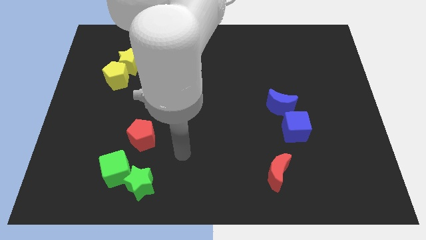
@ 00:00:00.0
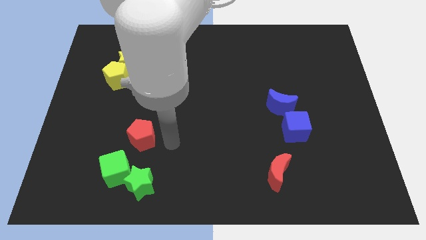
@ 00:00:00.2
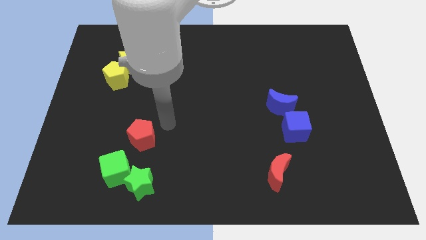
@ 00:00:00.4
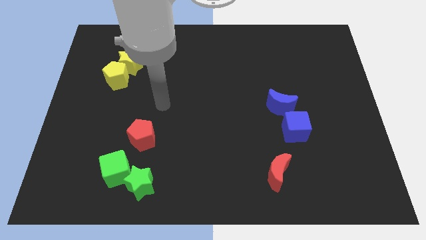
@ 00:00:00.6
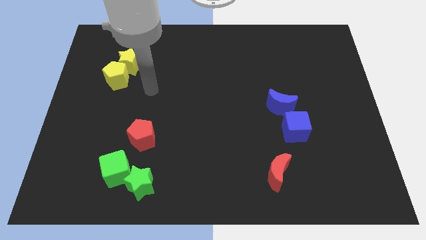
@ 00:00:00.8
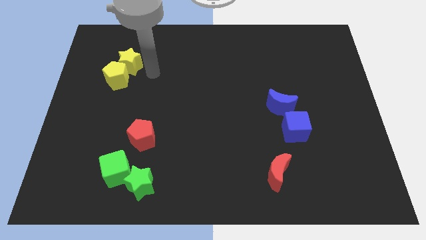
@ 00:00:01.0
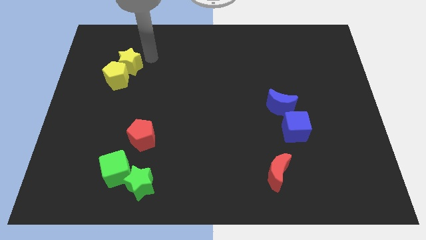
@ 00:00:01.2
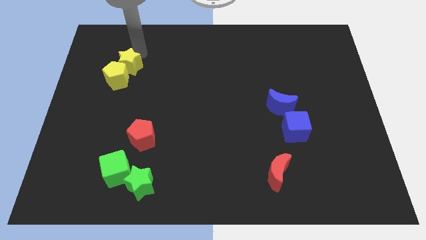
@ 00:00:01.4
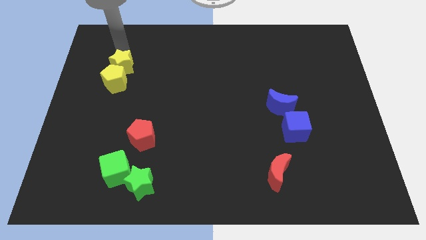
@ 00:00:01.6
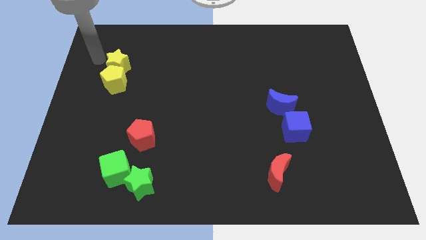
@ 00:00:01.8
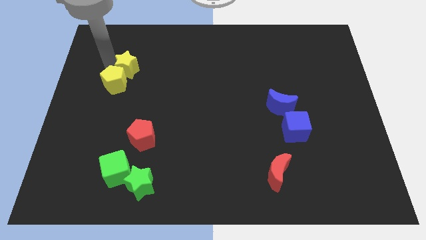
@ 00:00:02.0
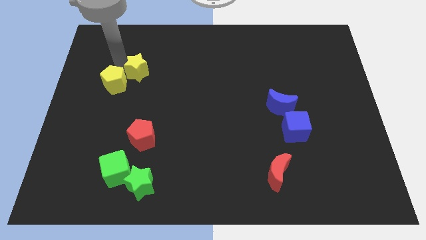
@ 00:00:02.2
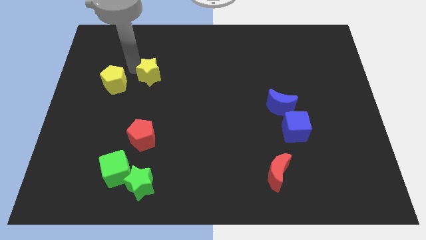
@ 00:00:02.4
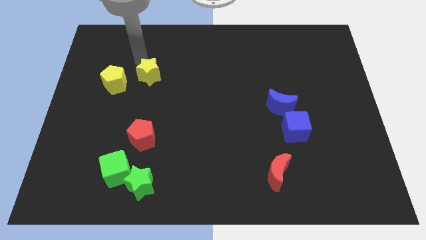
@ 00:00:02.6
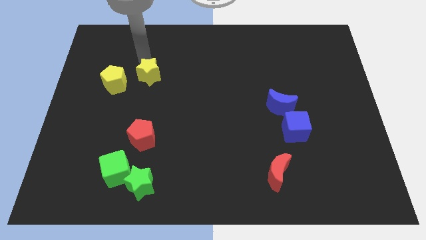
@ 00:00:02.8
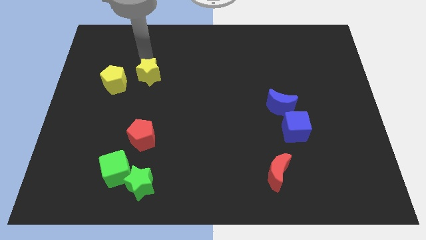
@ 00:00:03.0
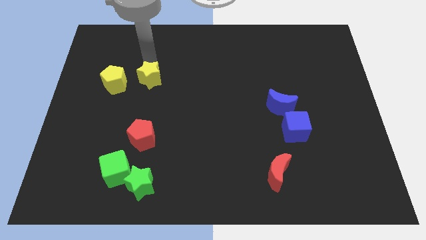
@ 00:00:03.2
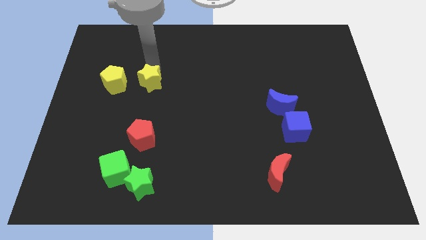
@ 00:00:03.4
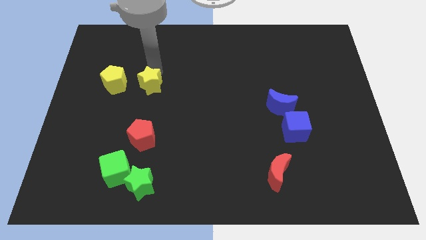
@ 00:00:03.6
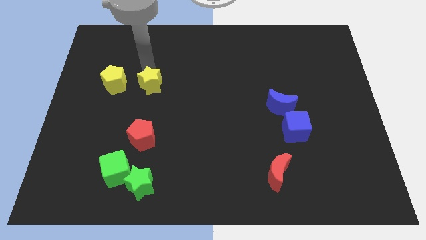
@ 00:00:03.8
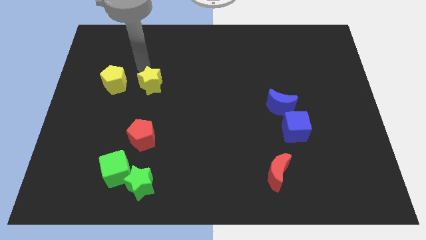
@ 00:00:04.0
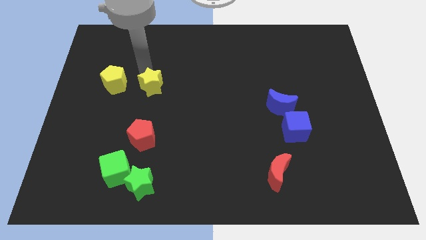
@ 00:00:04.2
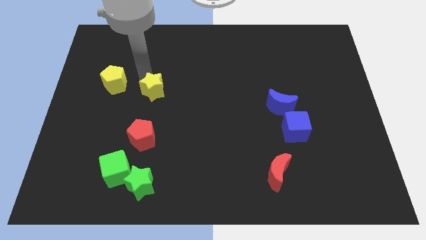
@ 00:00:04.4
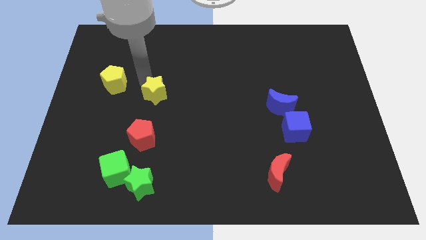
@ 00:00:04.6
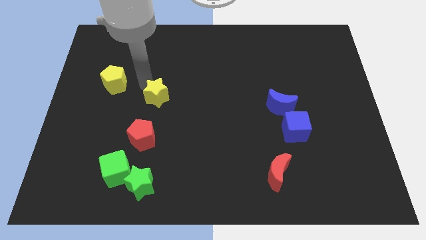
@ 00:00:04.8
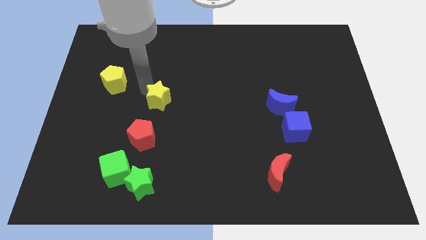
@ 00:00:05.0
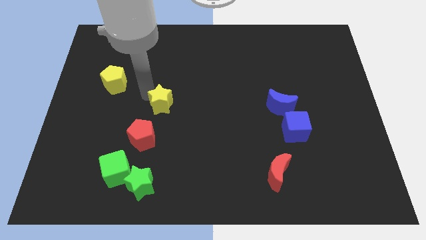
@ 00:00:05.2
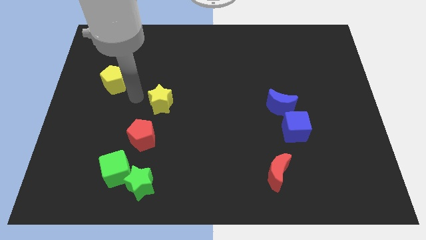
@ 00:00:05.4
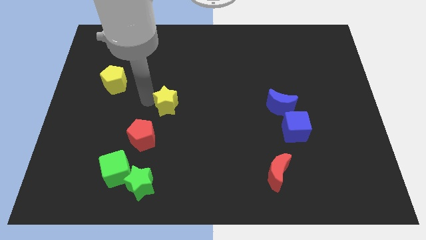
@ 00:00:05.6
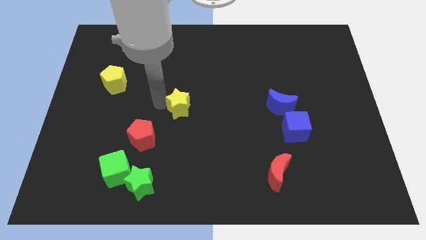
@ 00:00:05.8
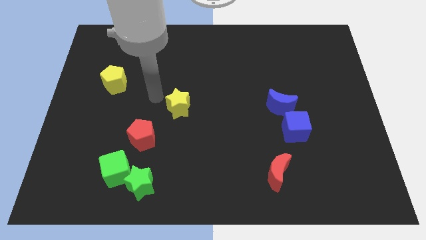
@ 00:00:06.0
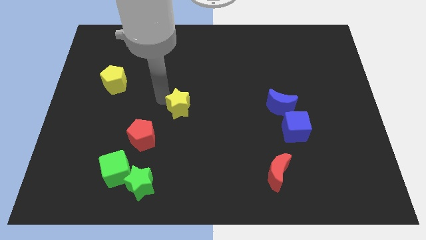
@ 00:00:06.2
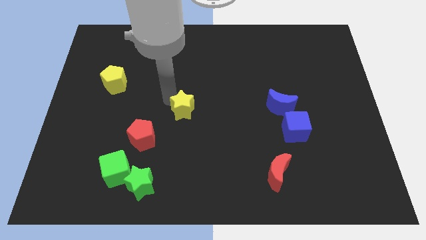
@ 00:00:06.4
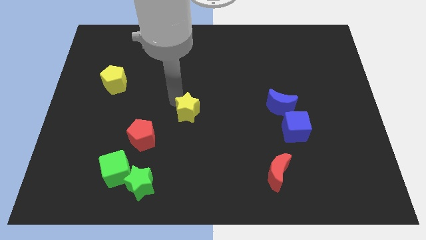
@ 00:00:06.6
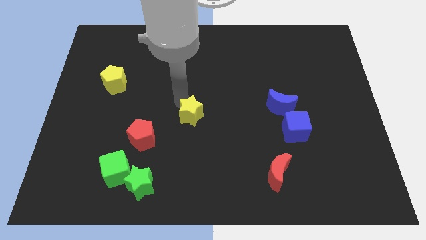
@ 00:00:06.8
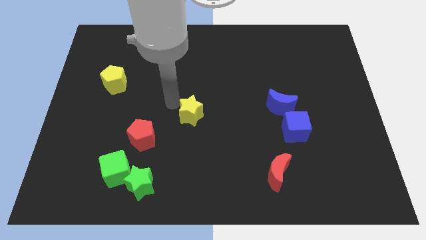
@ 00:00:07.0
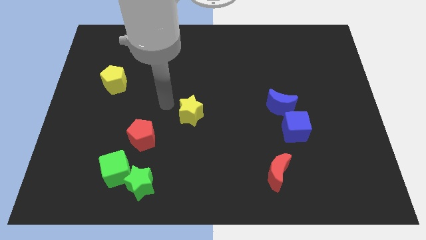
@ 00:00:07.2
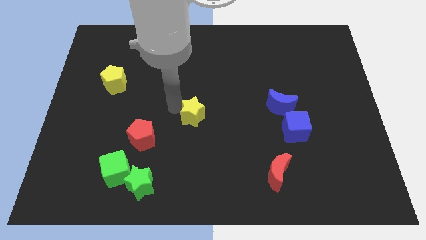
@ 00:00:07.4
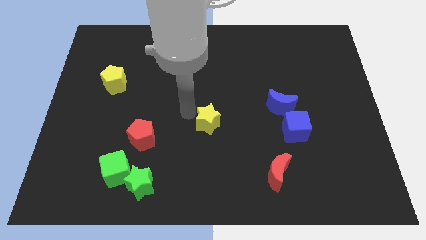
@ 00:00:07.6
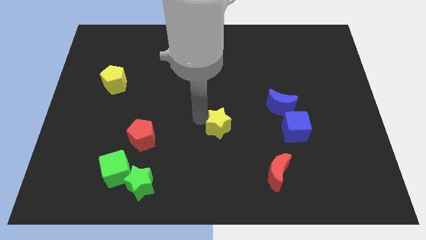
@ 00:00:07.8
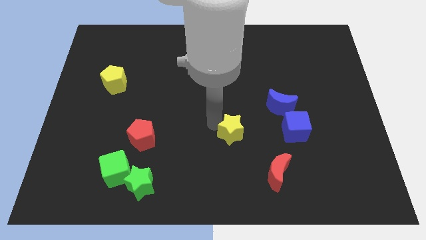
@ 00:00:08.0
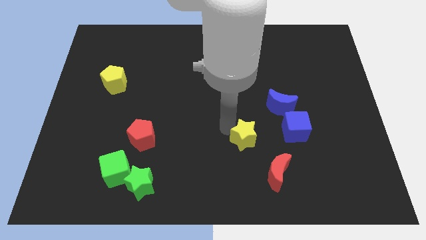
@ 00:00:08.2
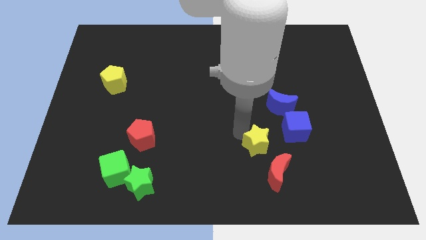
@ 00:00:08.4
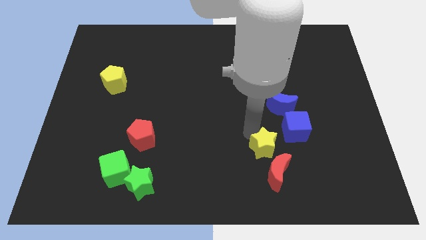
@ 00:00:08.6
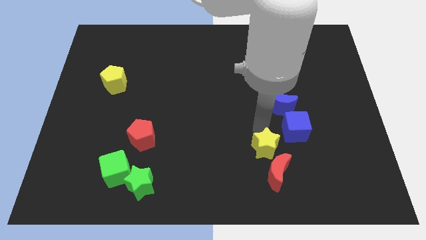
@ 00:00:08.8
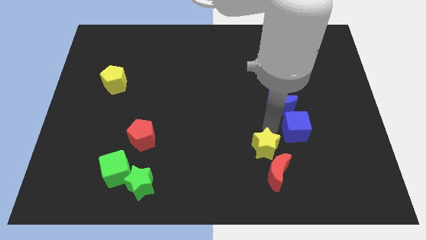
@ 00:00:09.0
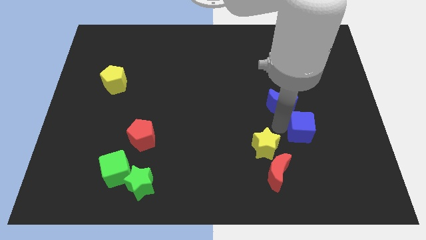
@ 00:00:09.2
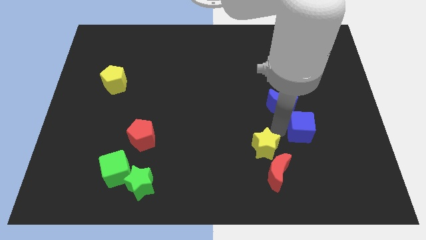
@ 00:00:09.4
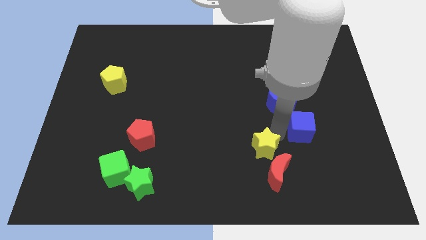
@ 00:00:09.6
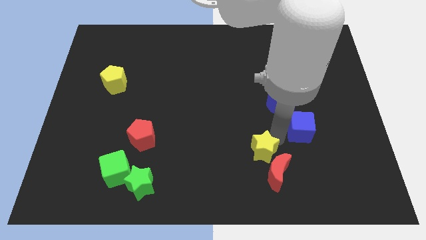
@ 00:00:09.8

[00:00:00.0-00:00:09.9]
put the yellow star next to the red moon

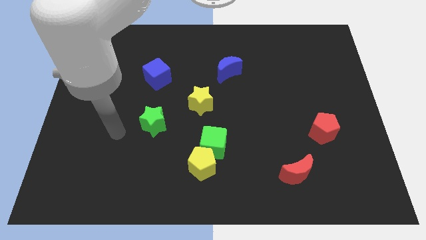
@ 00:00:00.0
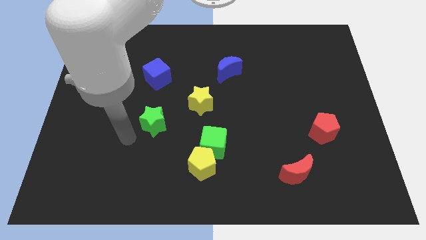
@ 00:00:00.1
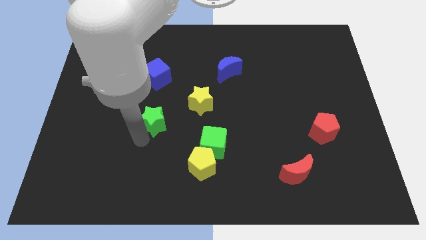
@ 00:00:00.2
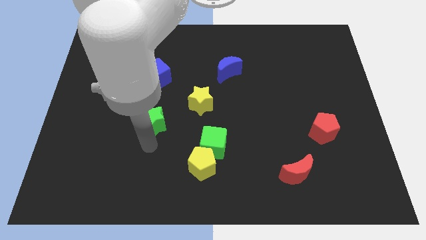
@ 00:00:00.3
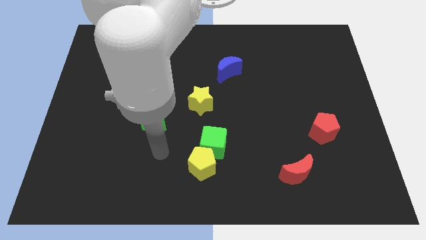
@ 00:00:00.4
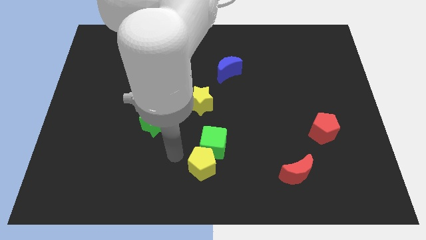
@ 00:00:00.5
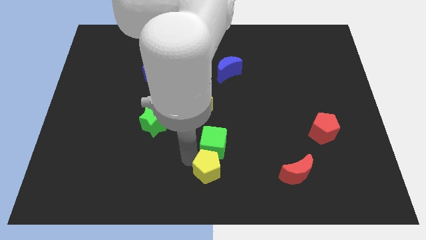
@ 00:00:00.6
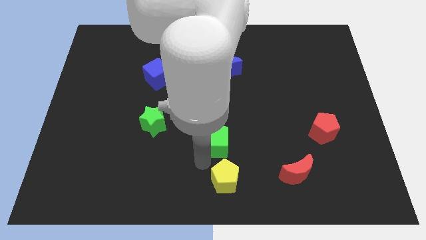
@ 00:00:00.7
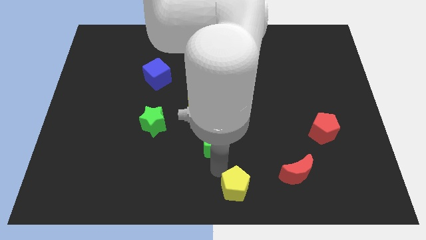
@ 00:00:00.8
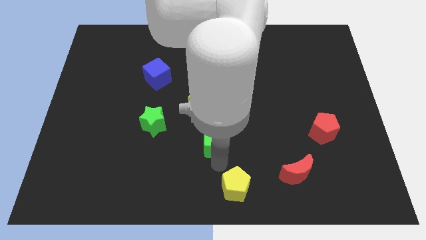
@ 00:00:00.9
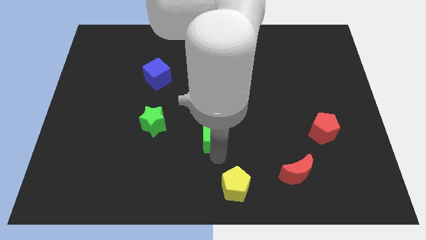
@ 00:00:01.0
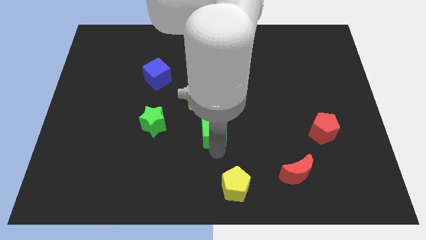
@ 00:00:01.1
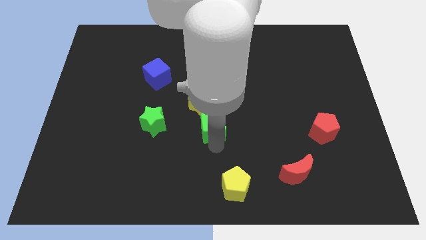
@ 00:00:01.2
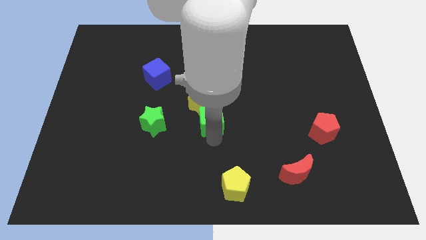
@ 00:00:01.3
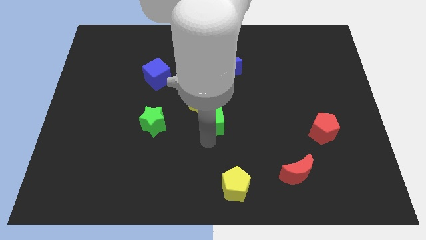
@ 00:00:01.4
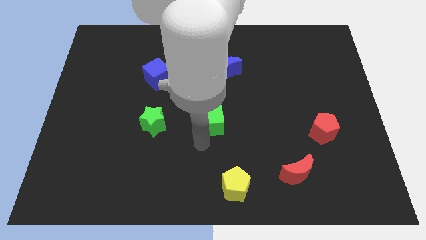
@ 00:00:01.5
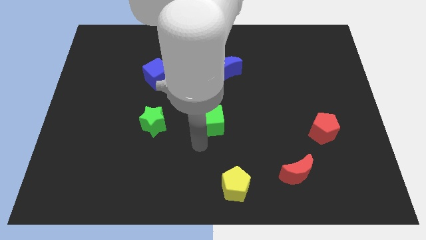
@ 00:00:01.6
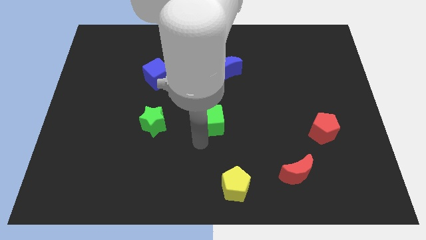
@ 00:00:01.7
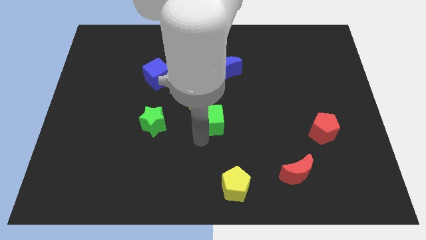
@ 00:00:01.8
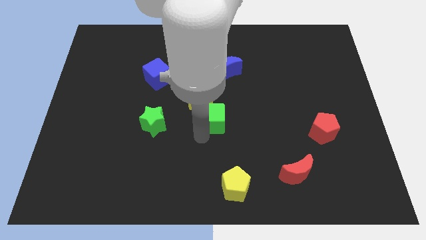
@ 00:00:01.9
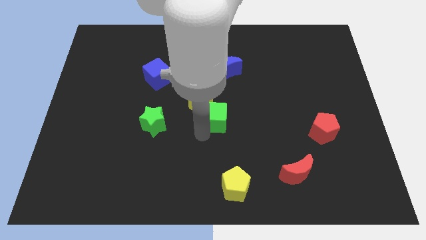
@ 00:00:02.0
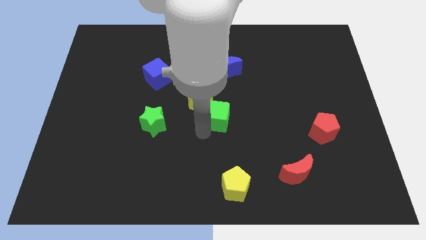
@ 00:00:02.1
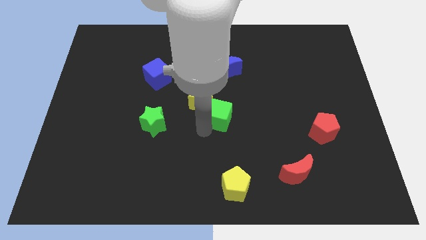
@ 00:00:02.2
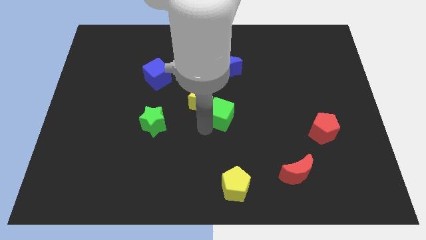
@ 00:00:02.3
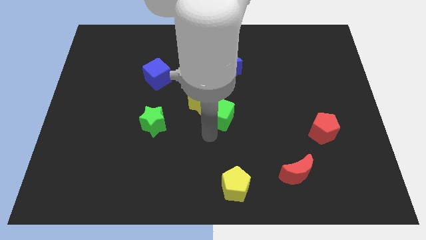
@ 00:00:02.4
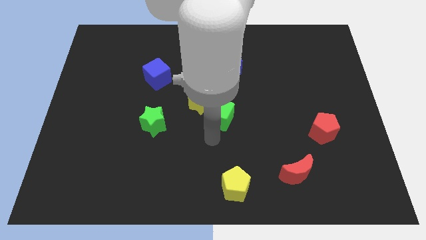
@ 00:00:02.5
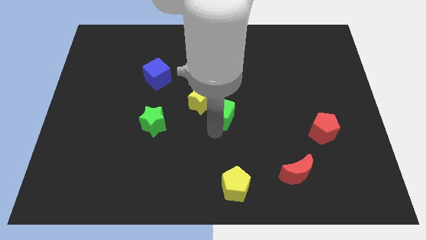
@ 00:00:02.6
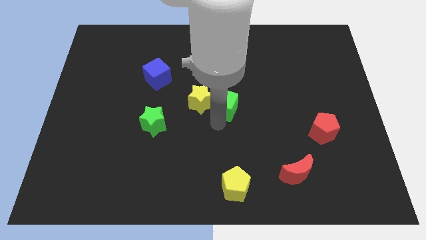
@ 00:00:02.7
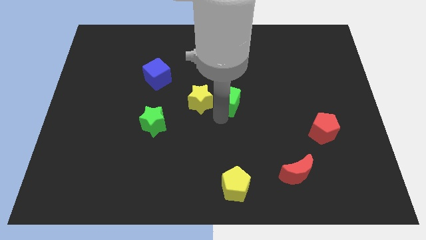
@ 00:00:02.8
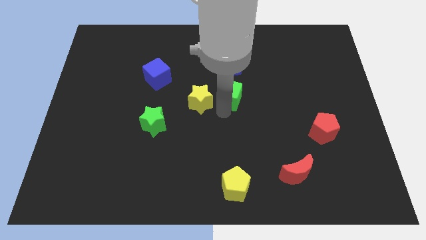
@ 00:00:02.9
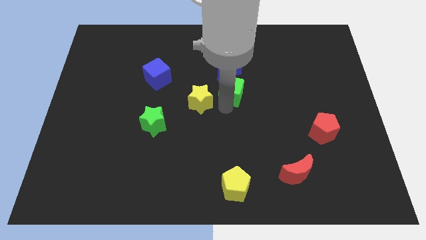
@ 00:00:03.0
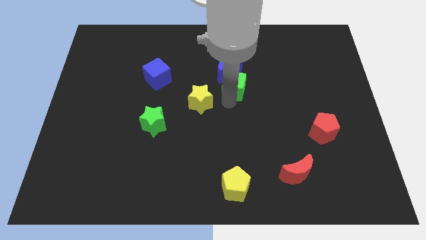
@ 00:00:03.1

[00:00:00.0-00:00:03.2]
push the green cube to the blue moon
